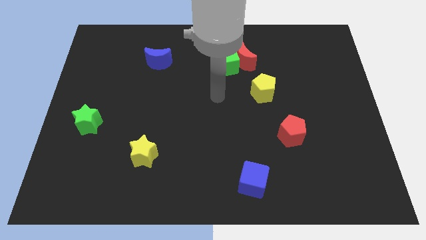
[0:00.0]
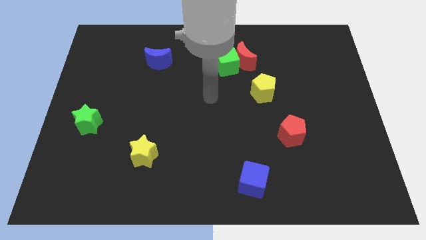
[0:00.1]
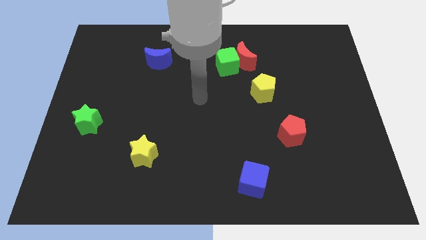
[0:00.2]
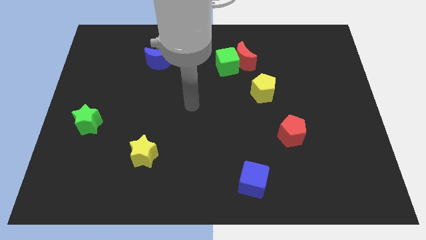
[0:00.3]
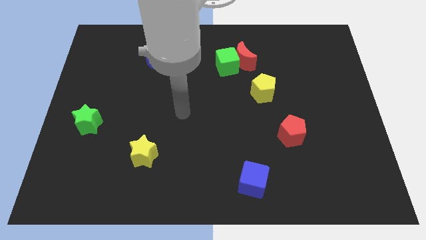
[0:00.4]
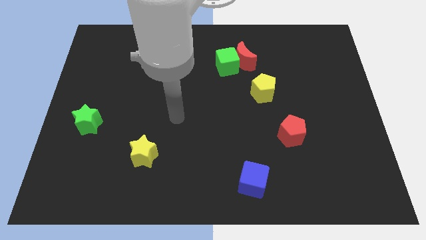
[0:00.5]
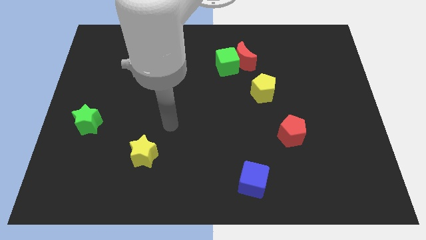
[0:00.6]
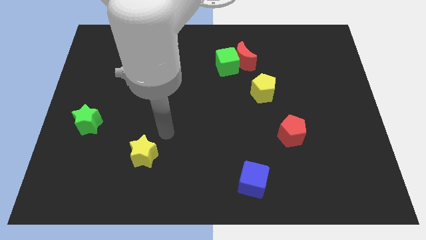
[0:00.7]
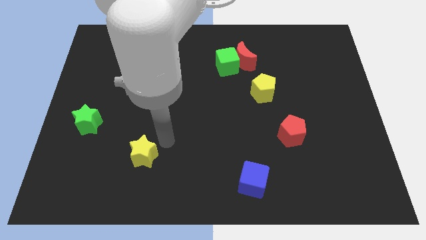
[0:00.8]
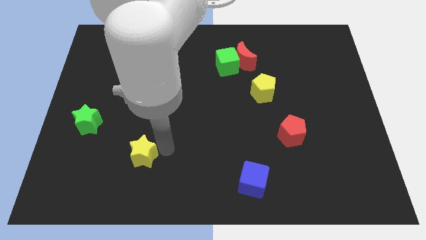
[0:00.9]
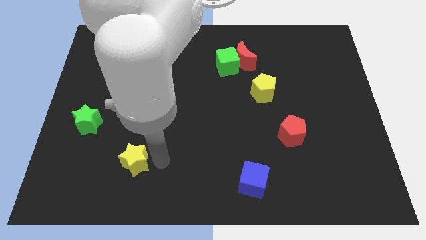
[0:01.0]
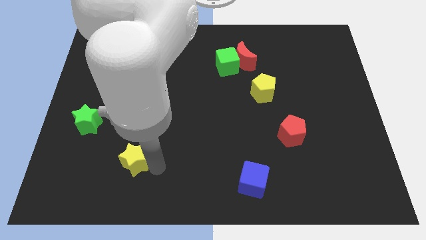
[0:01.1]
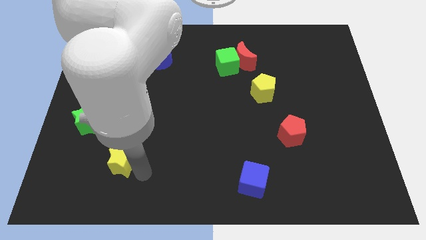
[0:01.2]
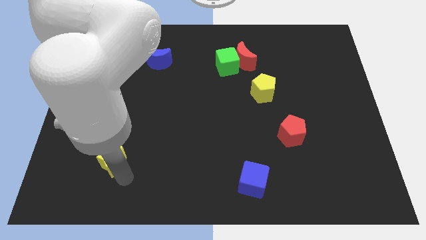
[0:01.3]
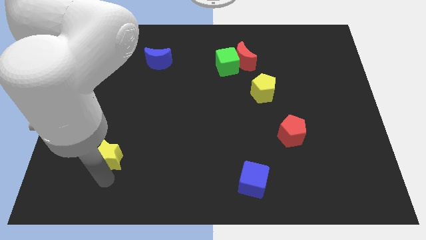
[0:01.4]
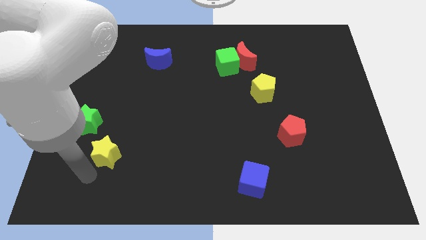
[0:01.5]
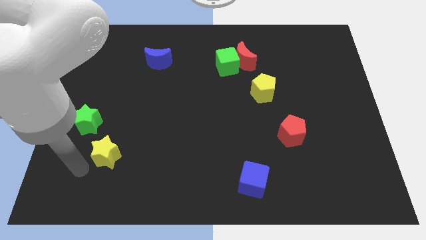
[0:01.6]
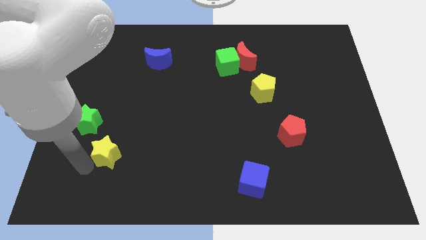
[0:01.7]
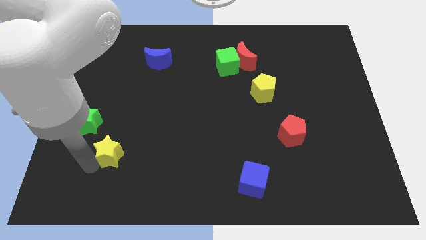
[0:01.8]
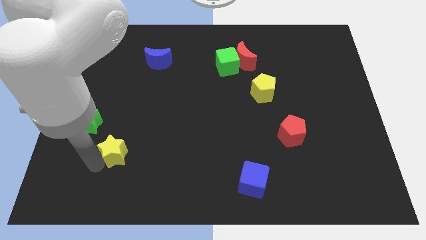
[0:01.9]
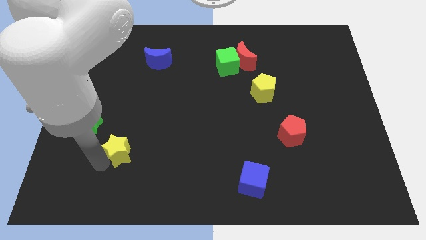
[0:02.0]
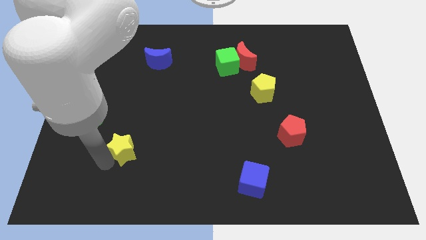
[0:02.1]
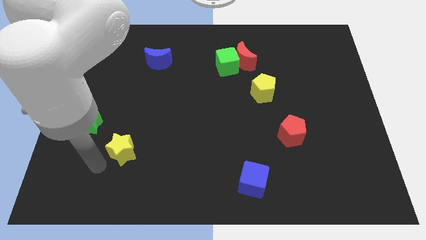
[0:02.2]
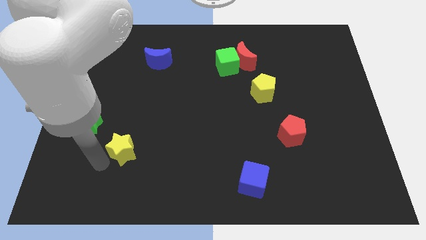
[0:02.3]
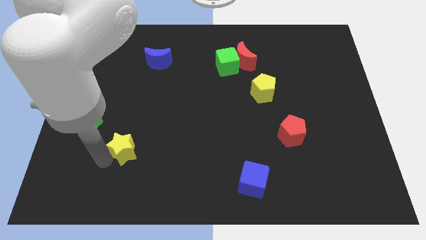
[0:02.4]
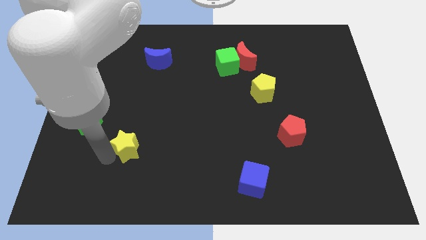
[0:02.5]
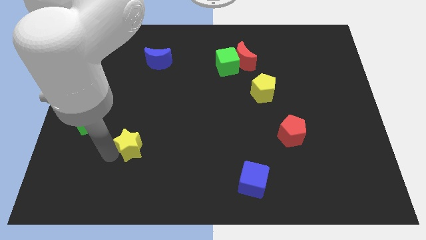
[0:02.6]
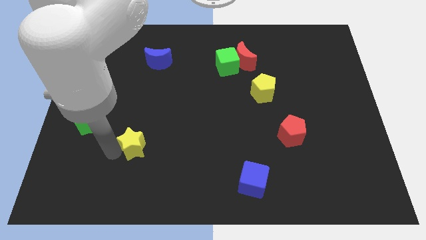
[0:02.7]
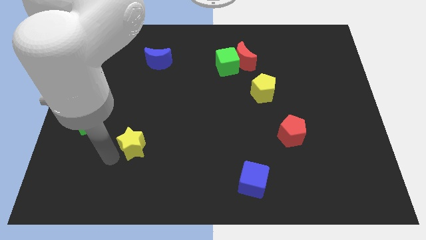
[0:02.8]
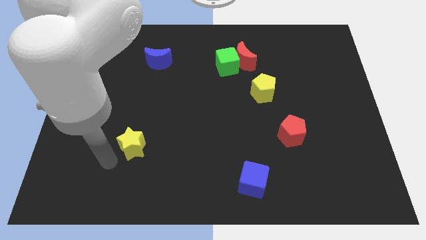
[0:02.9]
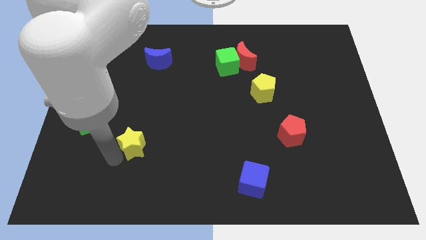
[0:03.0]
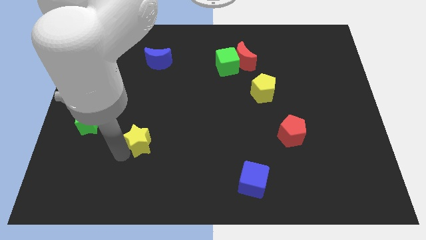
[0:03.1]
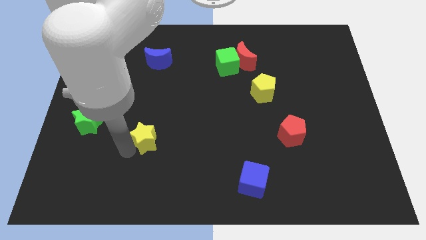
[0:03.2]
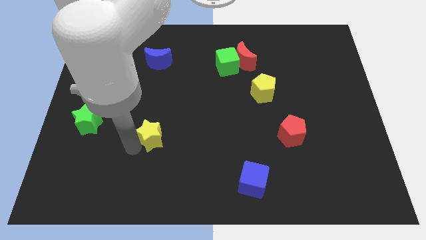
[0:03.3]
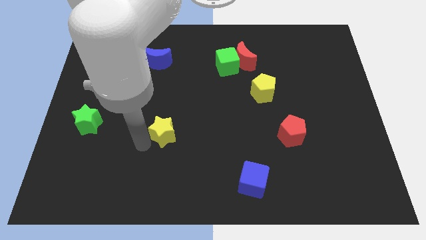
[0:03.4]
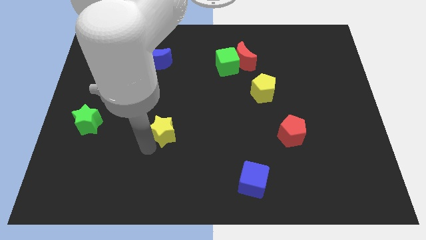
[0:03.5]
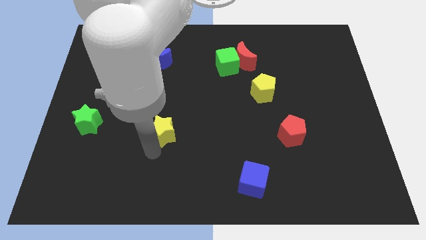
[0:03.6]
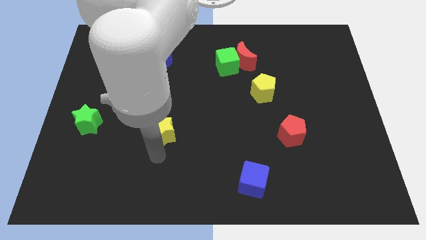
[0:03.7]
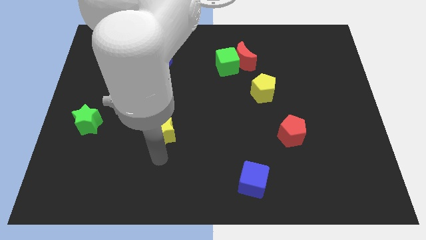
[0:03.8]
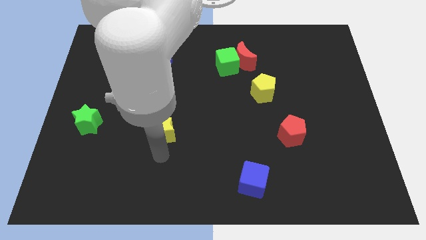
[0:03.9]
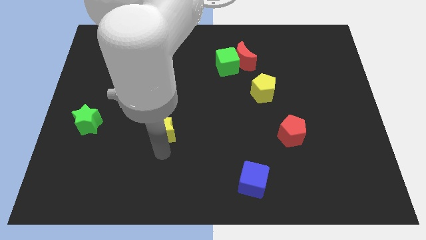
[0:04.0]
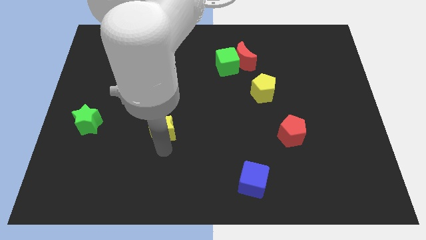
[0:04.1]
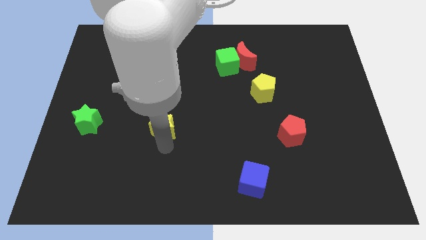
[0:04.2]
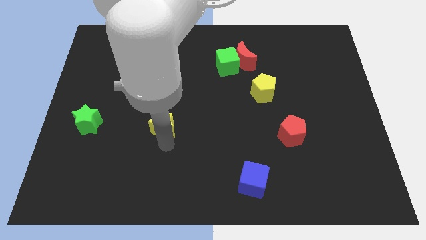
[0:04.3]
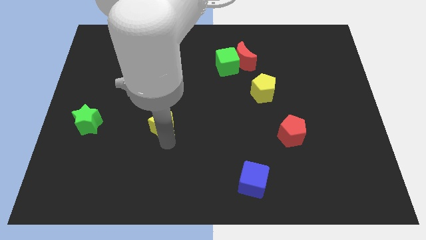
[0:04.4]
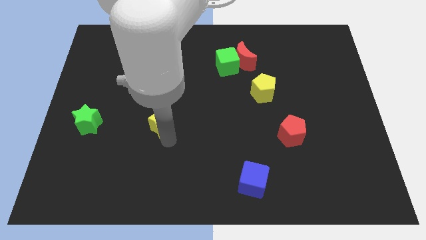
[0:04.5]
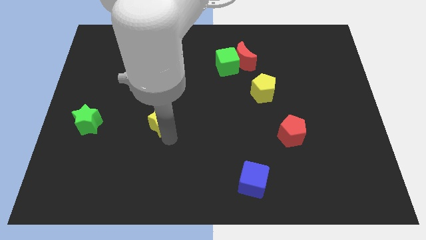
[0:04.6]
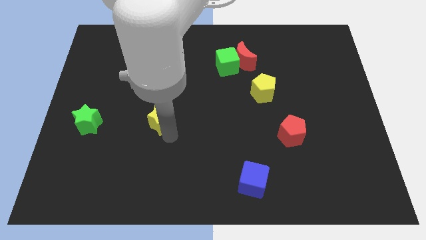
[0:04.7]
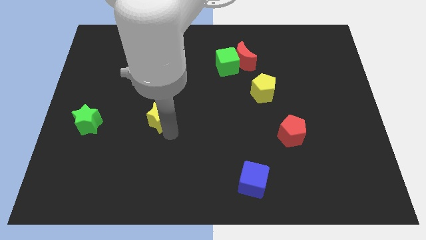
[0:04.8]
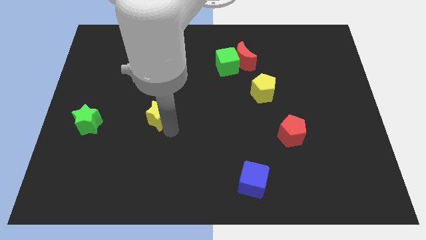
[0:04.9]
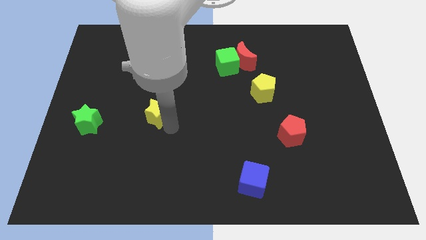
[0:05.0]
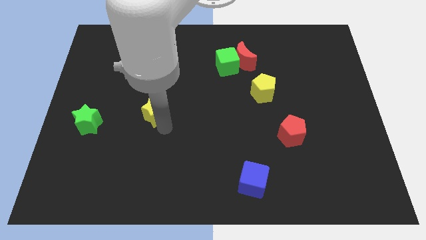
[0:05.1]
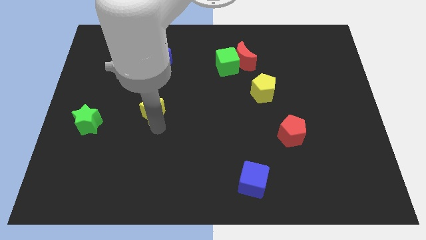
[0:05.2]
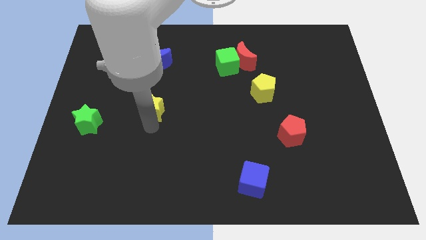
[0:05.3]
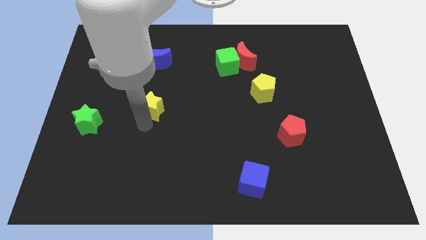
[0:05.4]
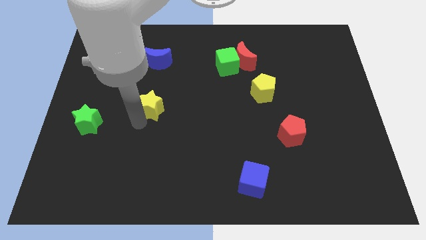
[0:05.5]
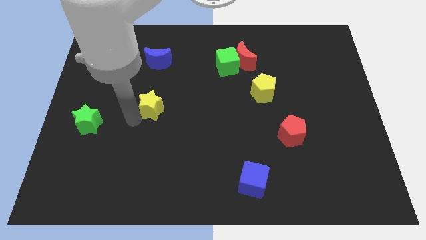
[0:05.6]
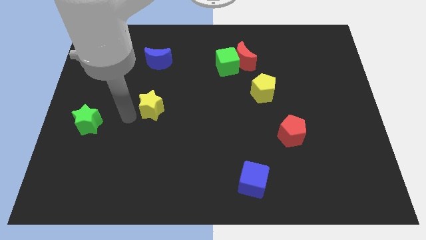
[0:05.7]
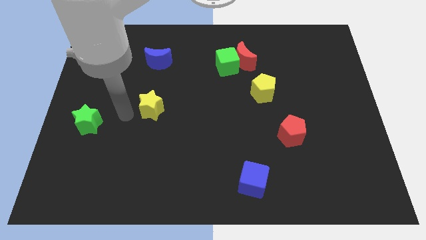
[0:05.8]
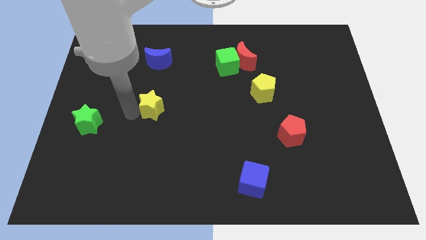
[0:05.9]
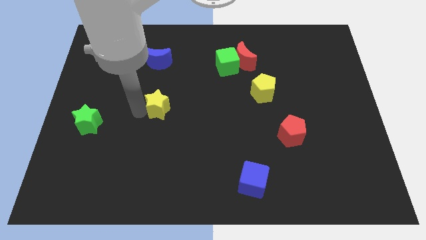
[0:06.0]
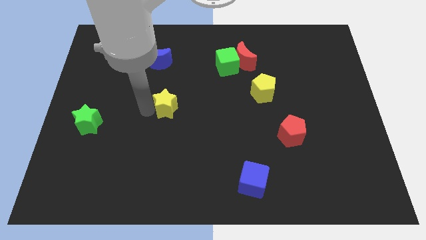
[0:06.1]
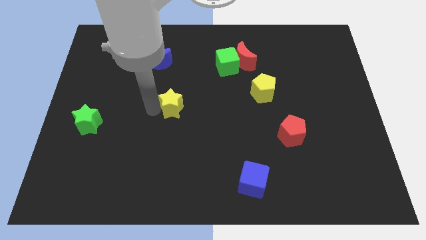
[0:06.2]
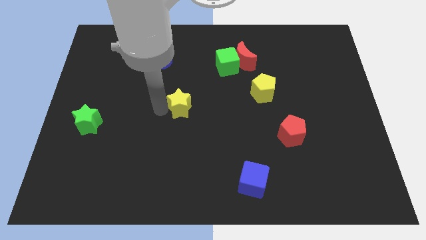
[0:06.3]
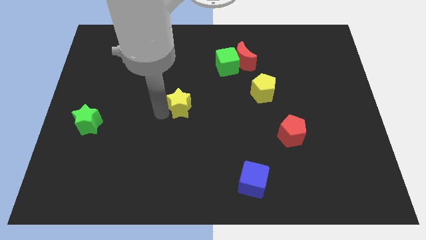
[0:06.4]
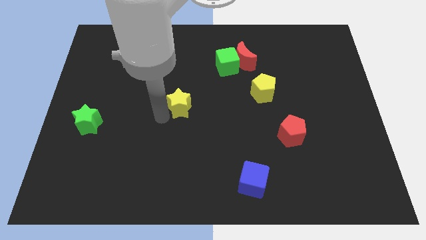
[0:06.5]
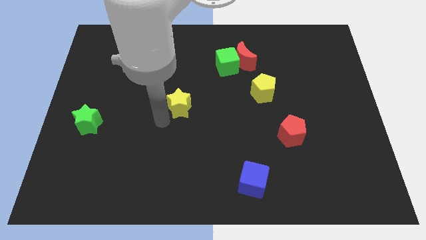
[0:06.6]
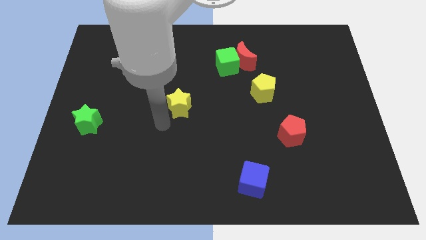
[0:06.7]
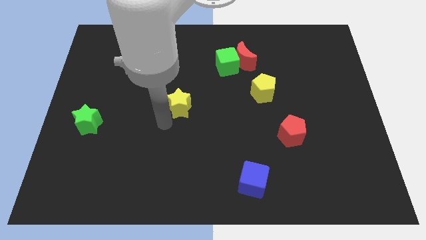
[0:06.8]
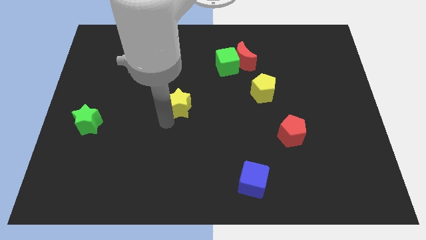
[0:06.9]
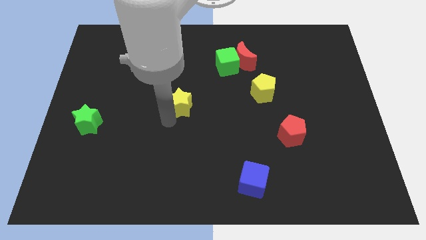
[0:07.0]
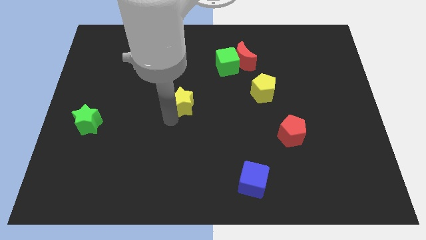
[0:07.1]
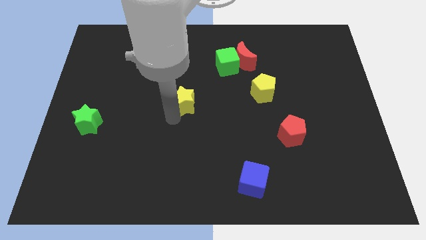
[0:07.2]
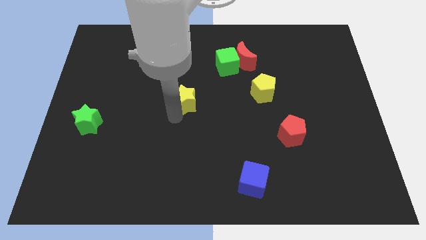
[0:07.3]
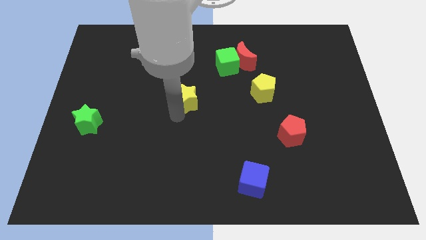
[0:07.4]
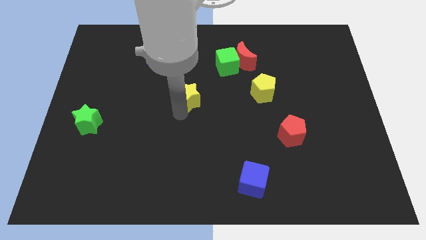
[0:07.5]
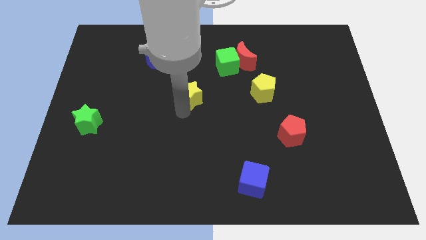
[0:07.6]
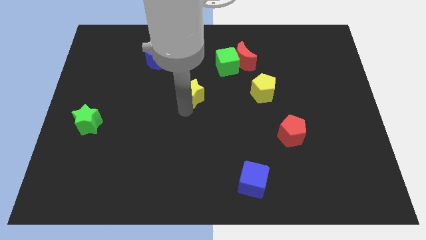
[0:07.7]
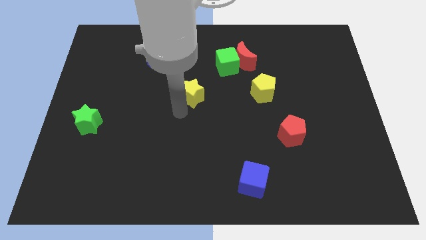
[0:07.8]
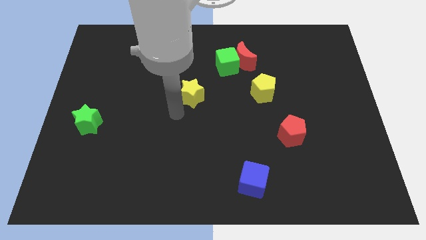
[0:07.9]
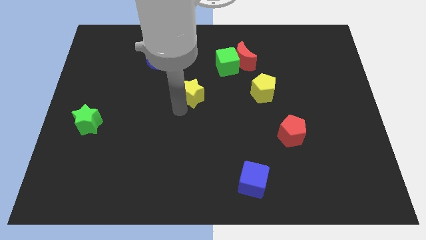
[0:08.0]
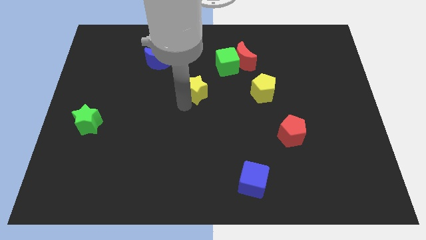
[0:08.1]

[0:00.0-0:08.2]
put the yellow star diagonally down and to the left of the green cube
